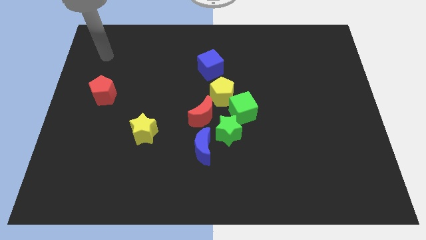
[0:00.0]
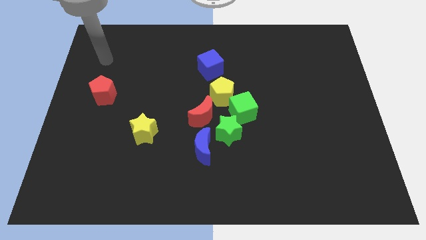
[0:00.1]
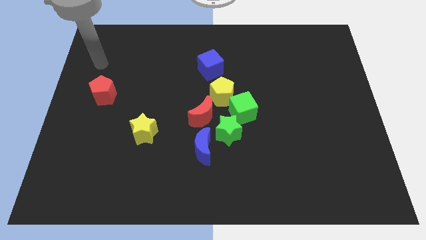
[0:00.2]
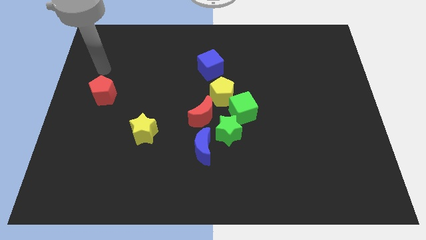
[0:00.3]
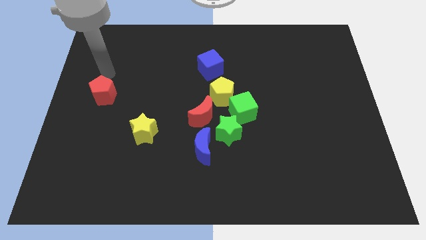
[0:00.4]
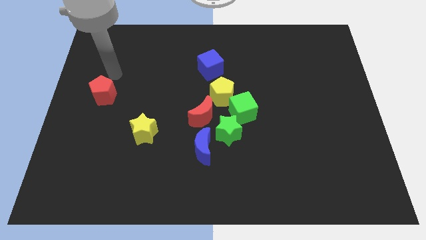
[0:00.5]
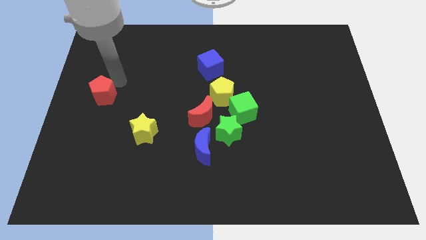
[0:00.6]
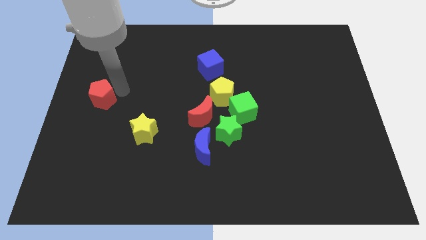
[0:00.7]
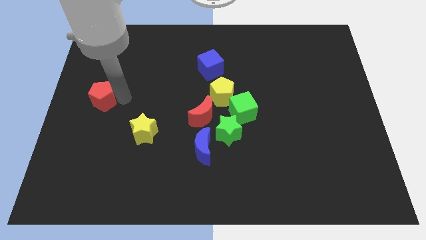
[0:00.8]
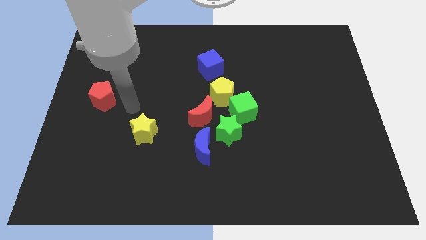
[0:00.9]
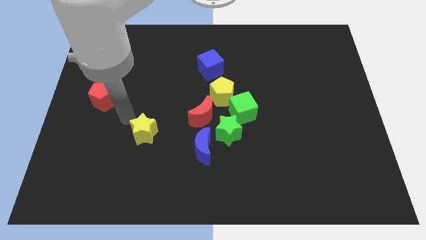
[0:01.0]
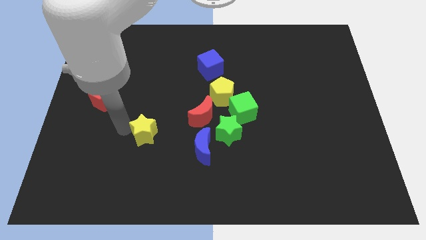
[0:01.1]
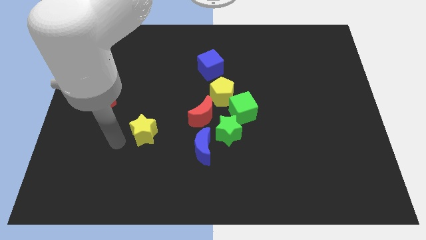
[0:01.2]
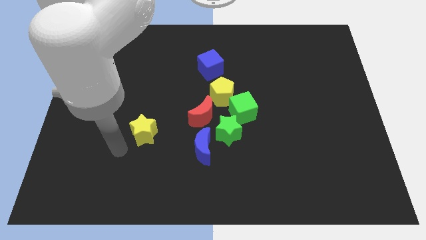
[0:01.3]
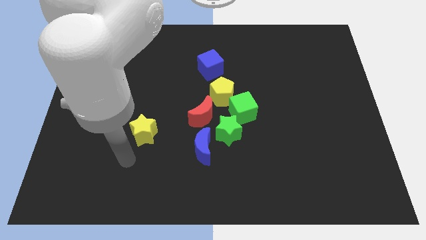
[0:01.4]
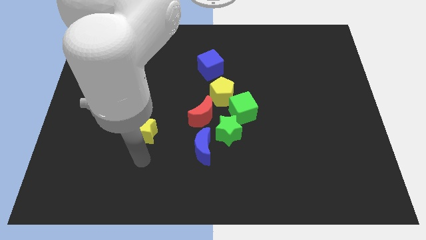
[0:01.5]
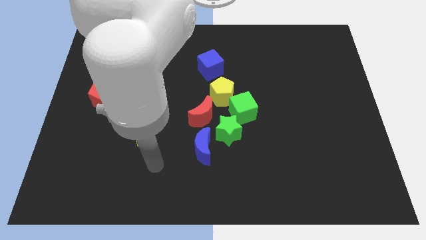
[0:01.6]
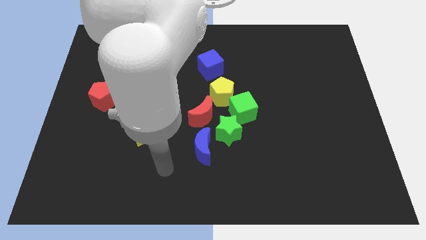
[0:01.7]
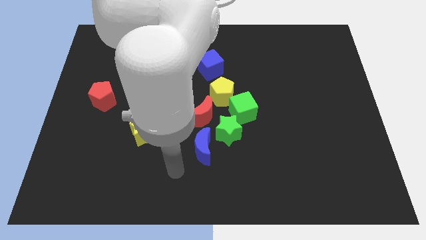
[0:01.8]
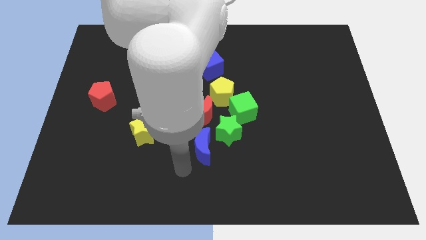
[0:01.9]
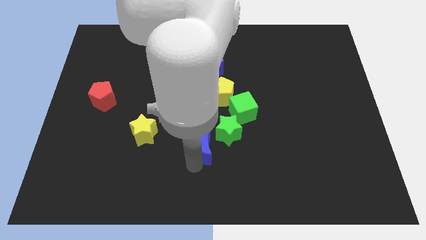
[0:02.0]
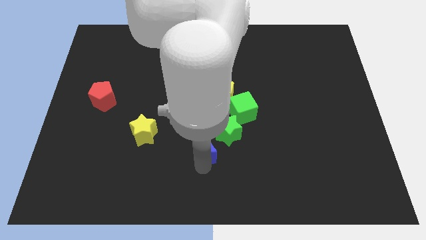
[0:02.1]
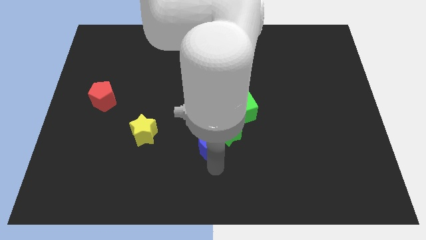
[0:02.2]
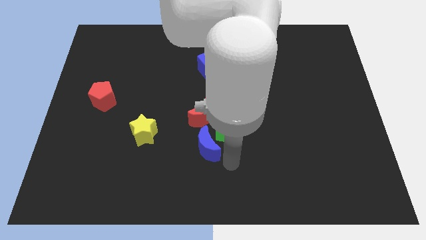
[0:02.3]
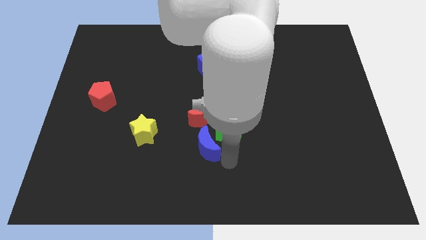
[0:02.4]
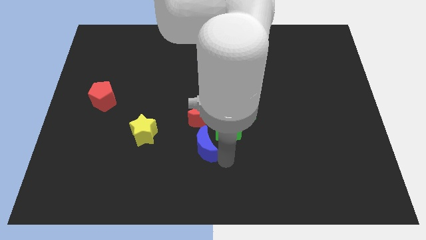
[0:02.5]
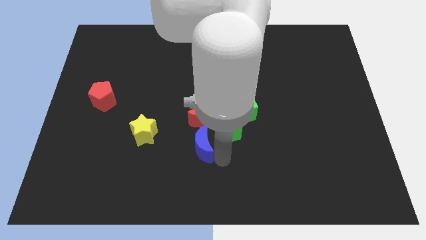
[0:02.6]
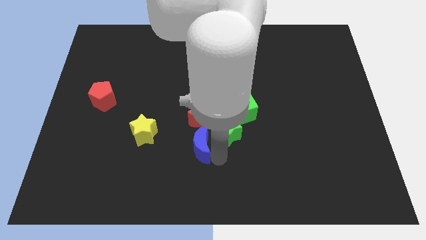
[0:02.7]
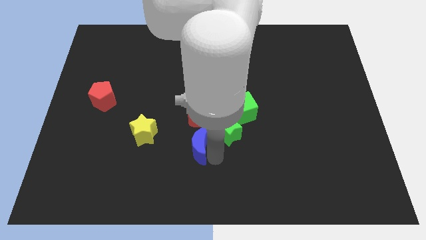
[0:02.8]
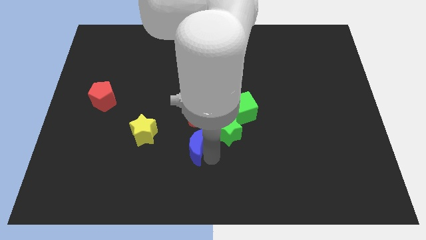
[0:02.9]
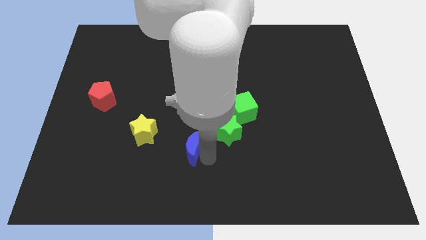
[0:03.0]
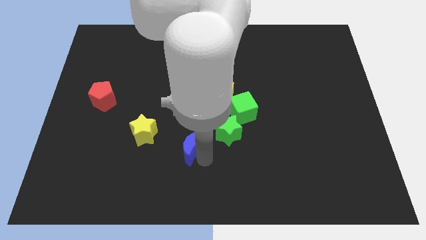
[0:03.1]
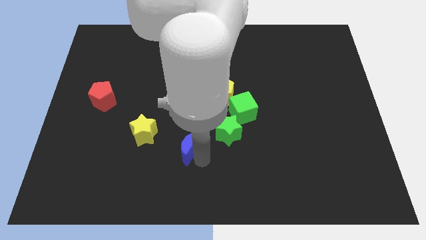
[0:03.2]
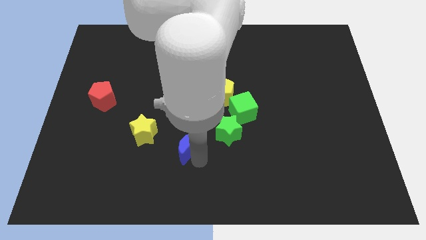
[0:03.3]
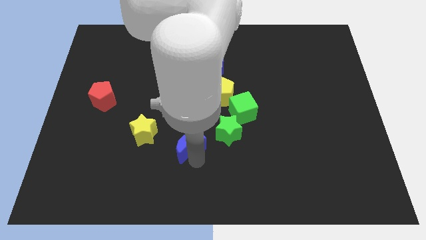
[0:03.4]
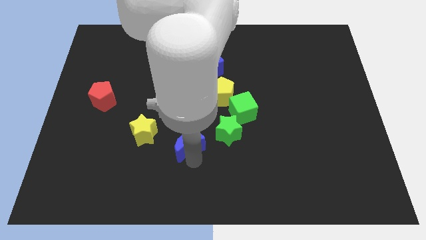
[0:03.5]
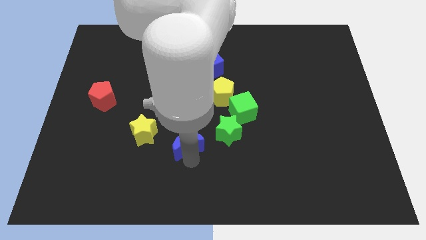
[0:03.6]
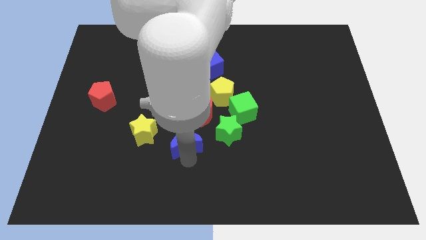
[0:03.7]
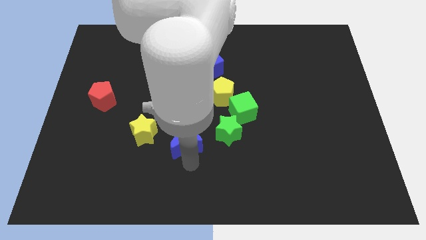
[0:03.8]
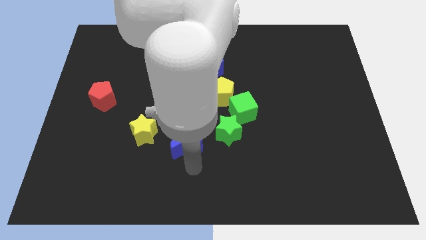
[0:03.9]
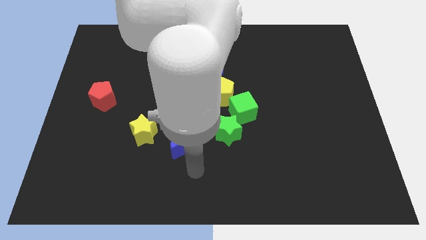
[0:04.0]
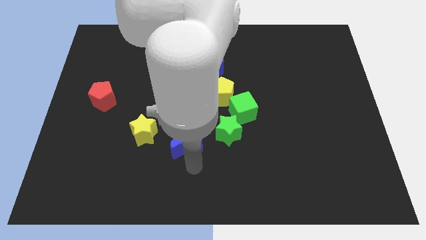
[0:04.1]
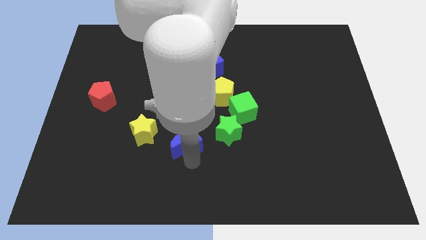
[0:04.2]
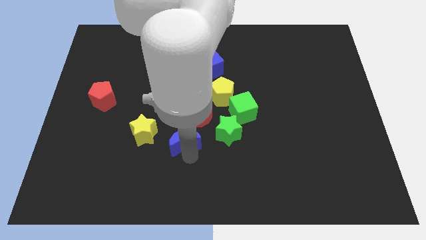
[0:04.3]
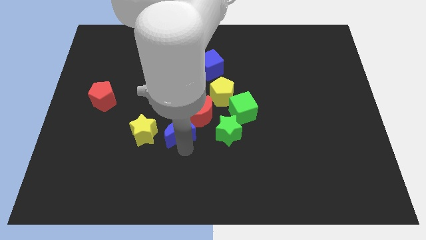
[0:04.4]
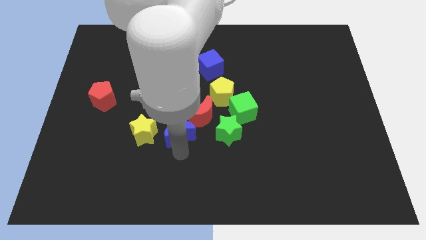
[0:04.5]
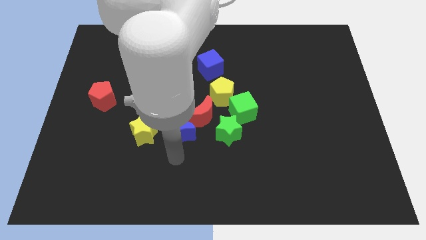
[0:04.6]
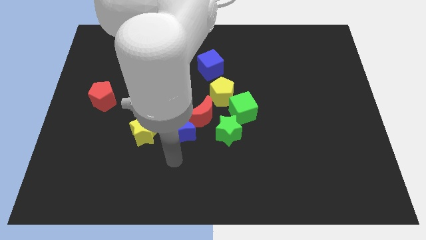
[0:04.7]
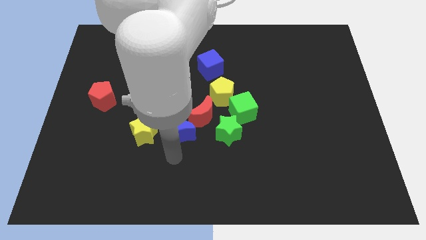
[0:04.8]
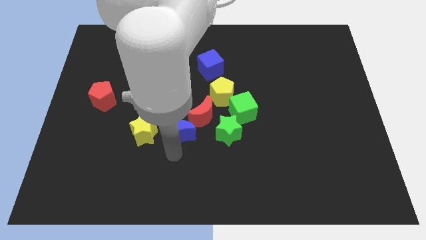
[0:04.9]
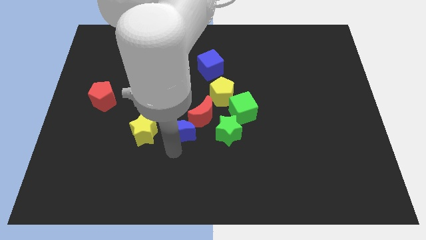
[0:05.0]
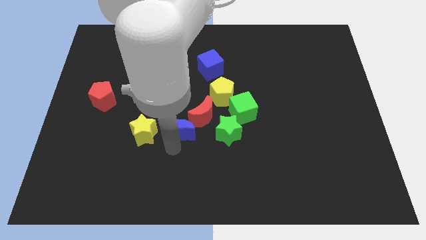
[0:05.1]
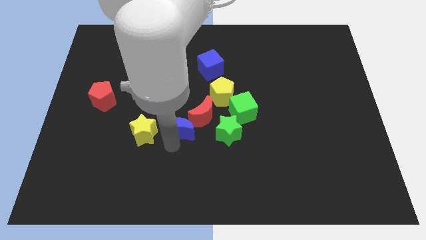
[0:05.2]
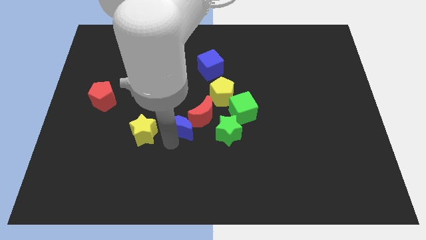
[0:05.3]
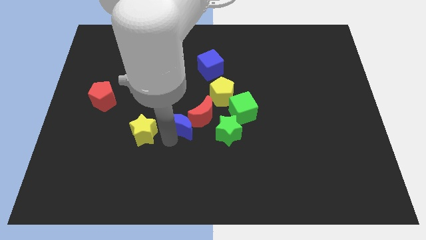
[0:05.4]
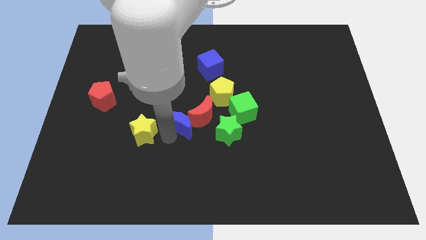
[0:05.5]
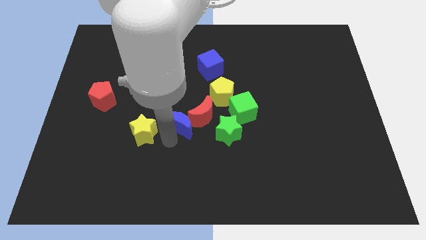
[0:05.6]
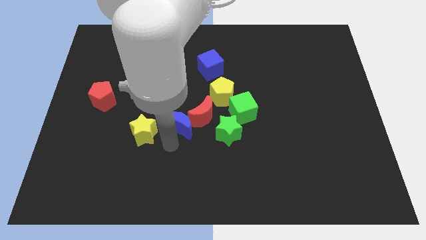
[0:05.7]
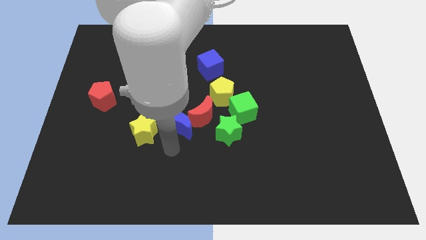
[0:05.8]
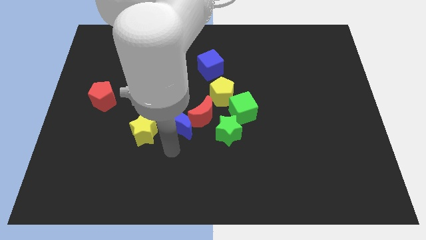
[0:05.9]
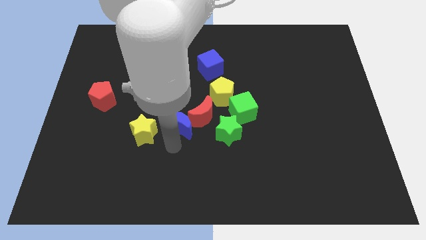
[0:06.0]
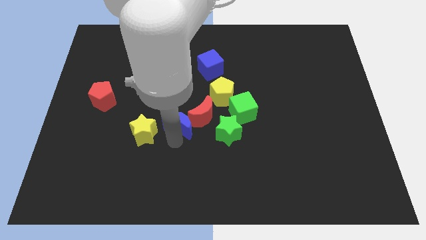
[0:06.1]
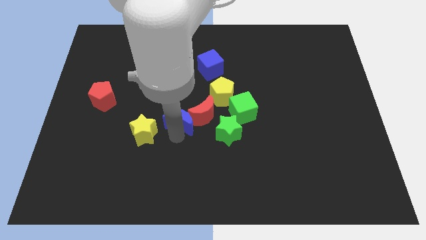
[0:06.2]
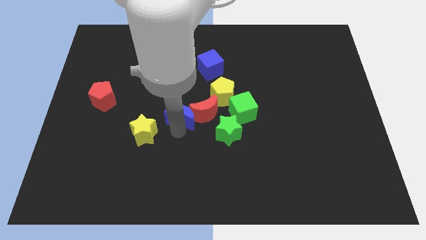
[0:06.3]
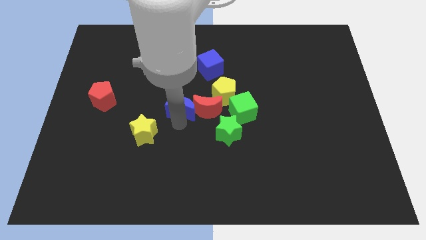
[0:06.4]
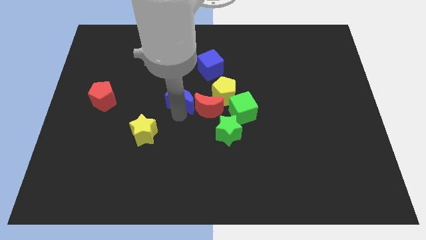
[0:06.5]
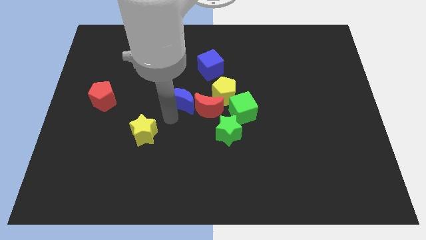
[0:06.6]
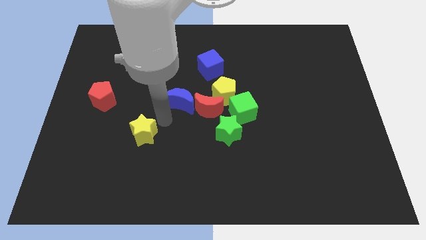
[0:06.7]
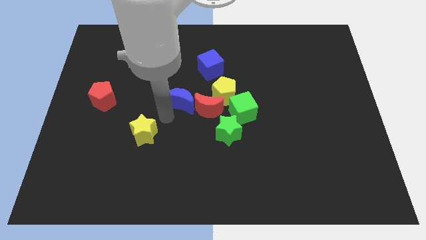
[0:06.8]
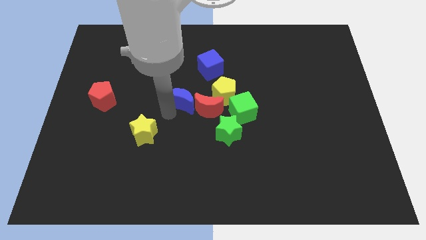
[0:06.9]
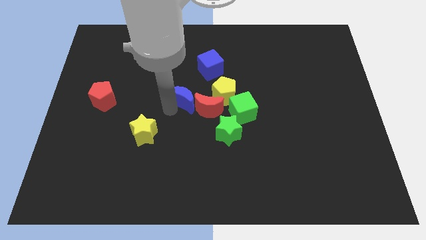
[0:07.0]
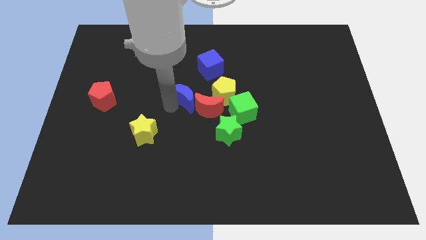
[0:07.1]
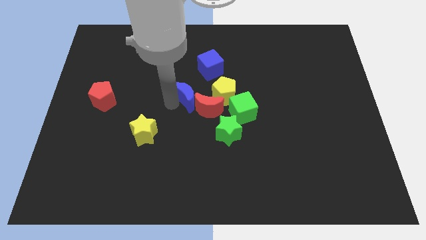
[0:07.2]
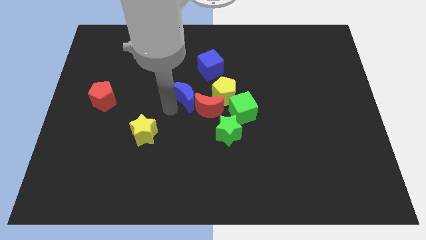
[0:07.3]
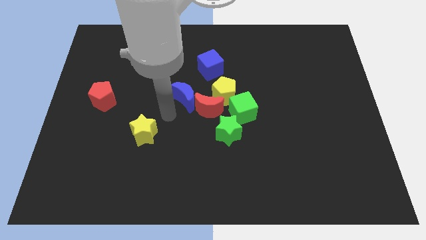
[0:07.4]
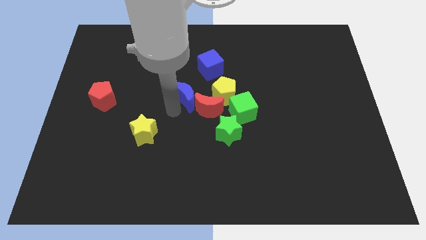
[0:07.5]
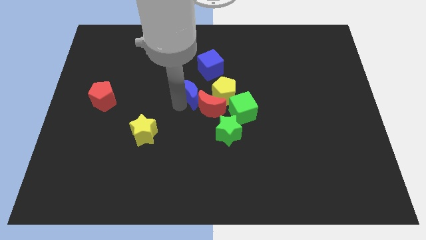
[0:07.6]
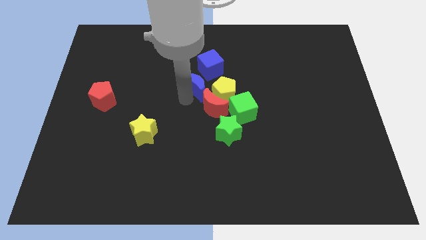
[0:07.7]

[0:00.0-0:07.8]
slide the blue moon to the top of the red moon
